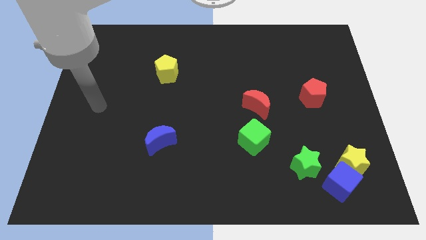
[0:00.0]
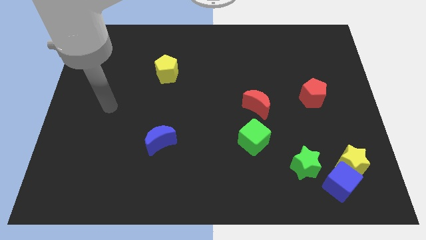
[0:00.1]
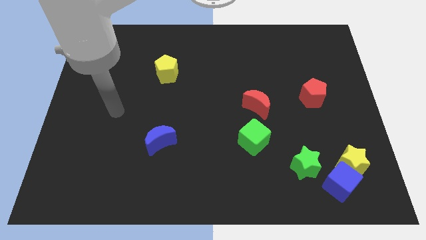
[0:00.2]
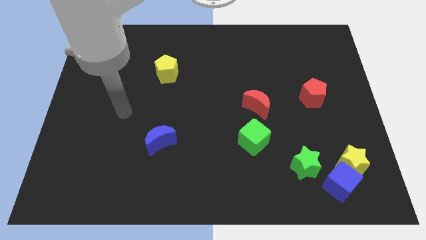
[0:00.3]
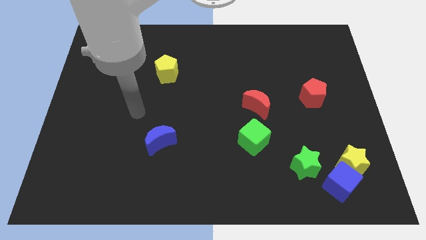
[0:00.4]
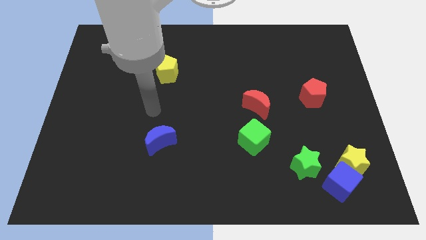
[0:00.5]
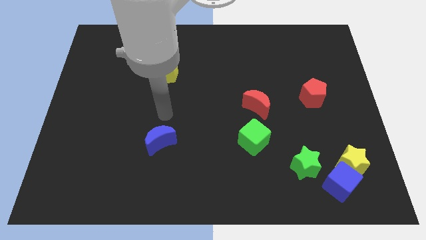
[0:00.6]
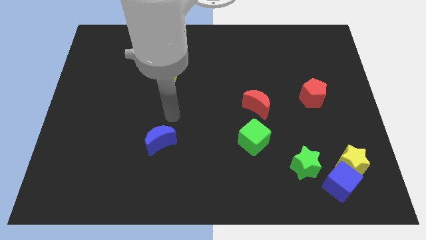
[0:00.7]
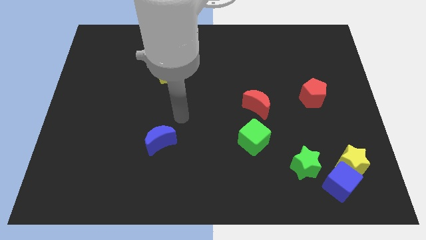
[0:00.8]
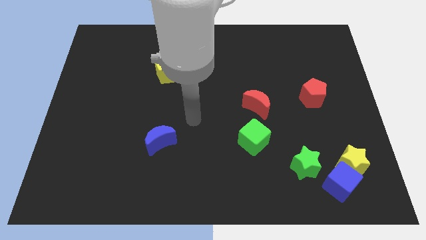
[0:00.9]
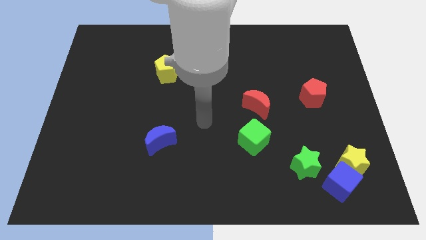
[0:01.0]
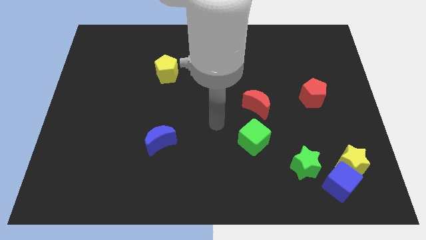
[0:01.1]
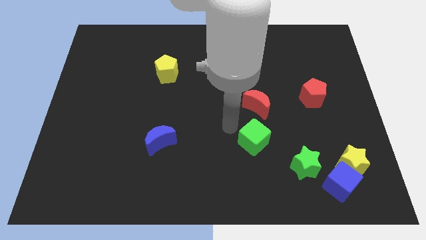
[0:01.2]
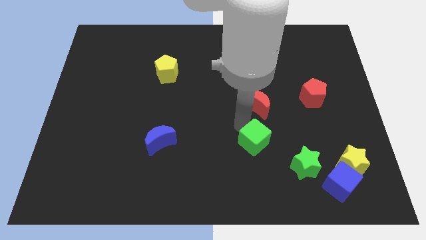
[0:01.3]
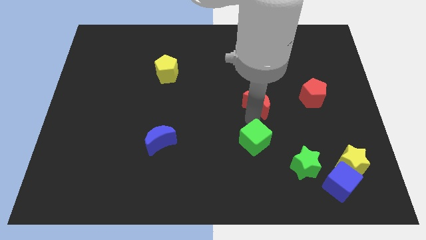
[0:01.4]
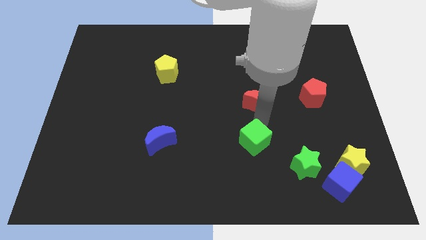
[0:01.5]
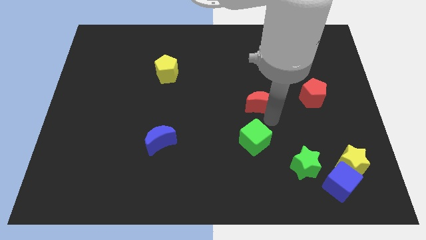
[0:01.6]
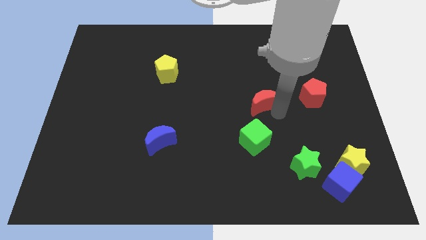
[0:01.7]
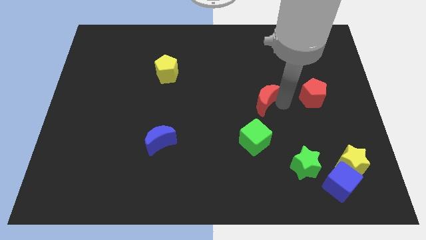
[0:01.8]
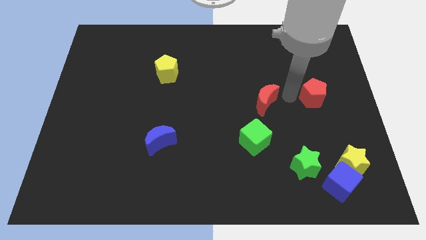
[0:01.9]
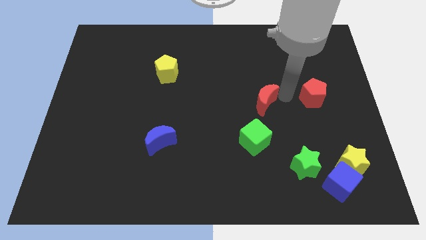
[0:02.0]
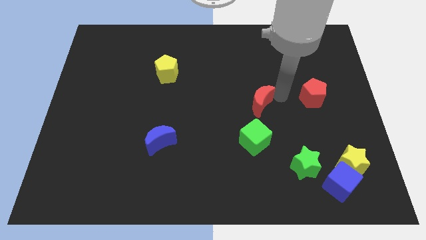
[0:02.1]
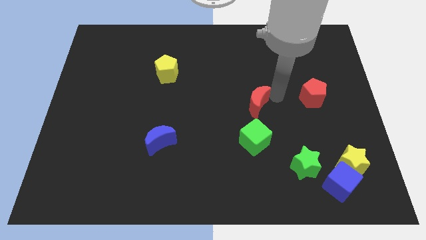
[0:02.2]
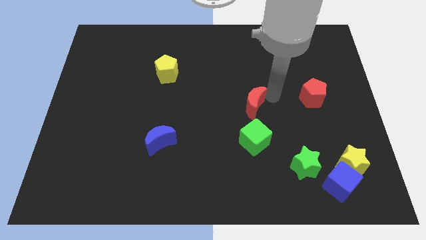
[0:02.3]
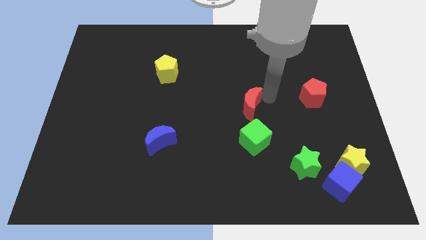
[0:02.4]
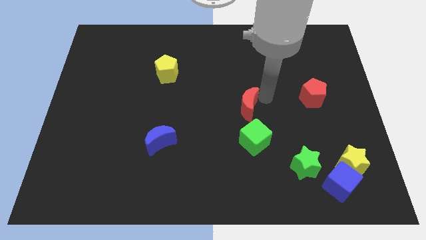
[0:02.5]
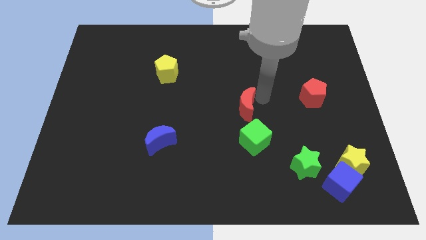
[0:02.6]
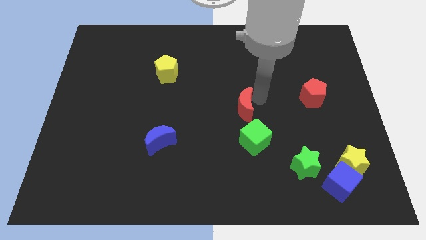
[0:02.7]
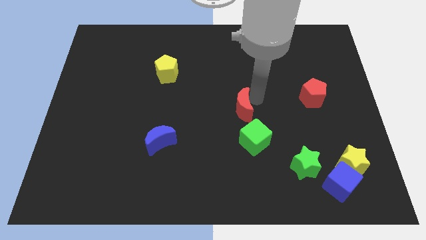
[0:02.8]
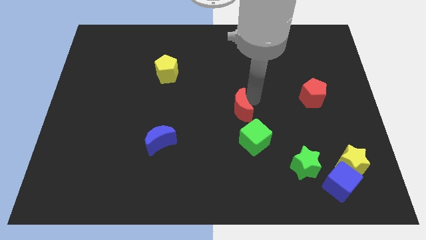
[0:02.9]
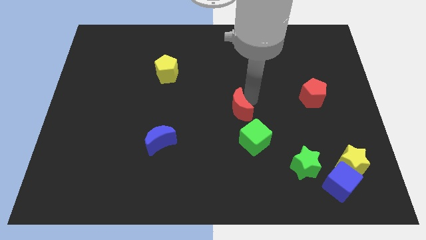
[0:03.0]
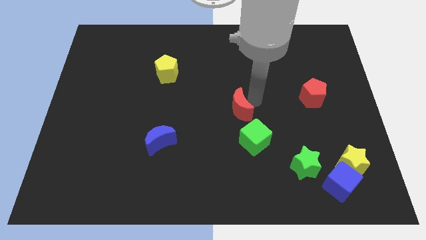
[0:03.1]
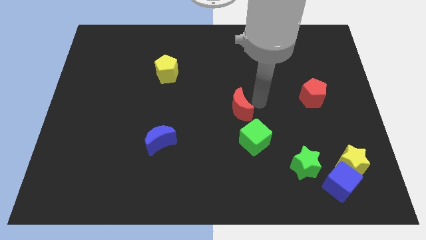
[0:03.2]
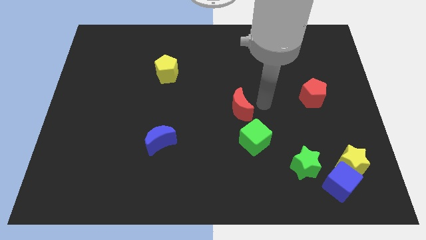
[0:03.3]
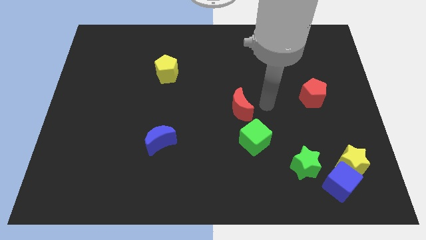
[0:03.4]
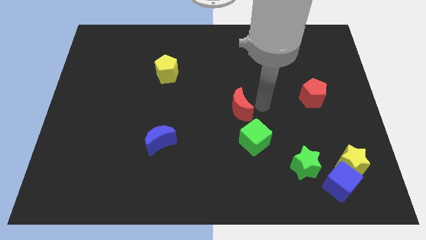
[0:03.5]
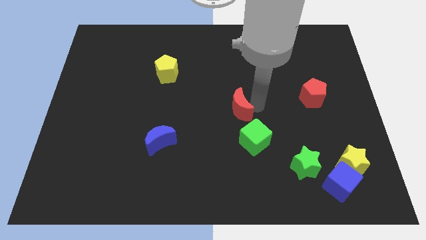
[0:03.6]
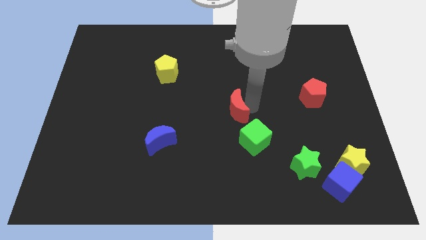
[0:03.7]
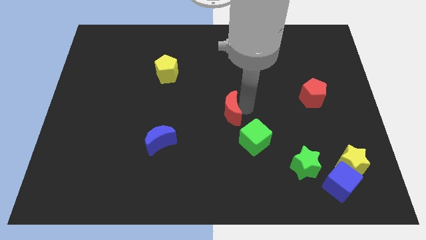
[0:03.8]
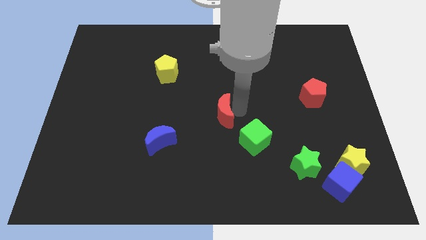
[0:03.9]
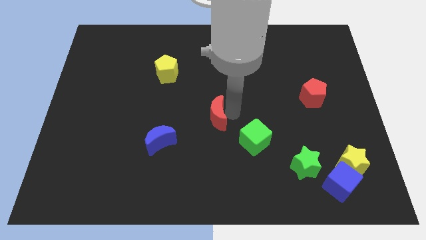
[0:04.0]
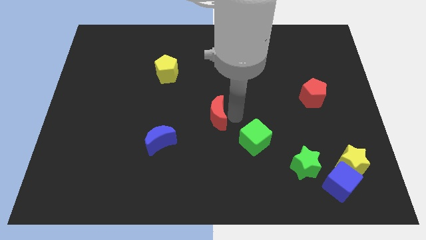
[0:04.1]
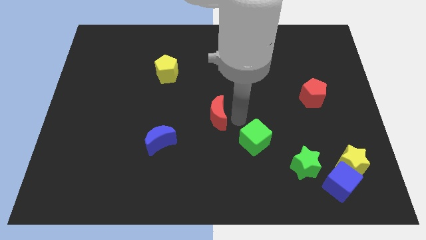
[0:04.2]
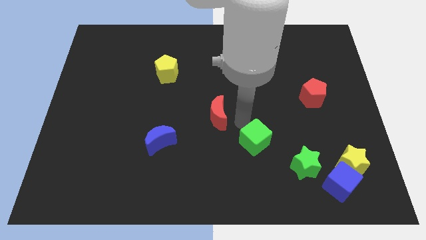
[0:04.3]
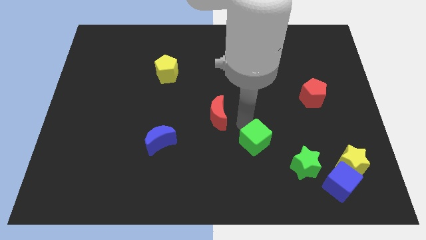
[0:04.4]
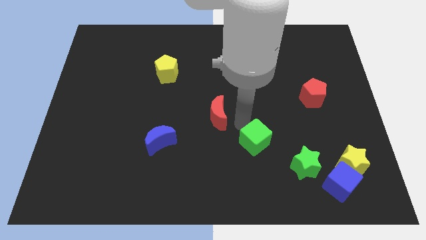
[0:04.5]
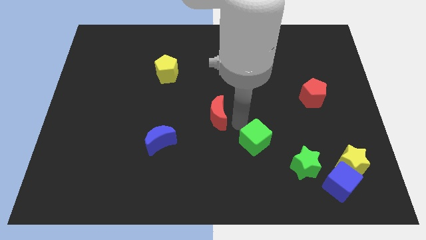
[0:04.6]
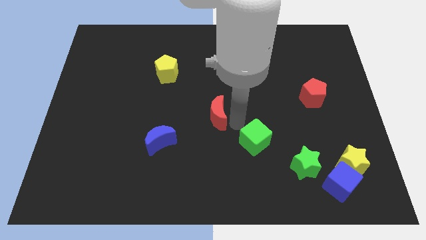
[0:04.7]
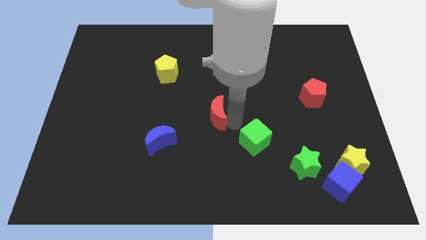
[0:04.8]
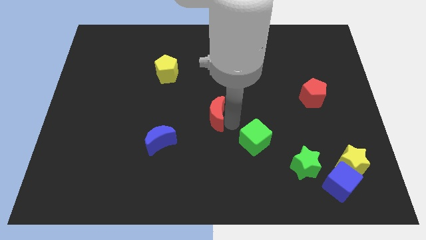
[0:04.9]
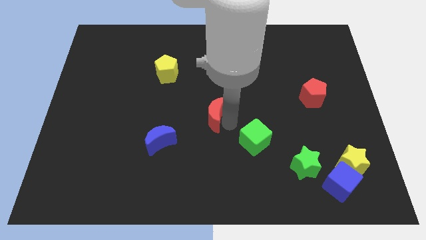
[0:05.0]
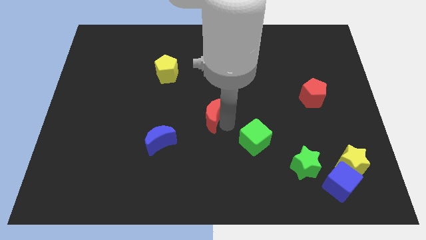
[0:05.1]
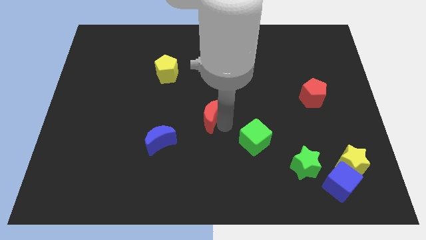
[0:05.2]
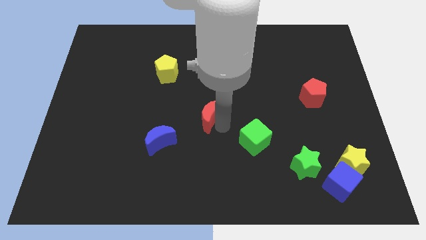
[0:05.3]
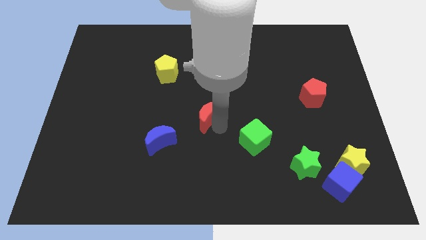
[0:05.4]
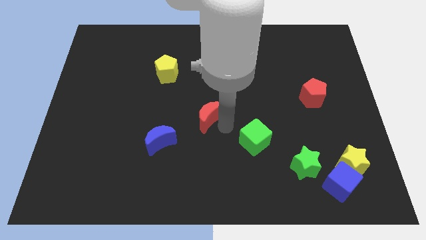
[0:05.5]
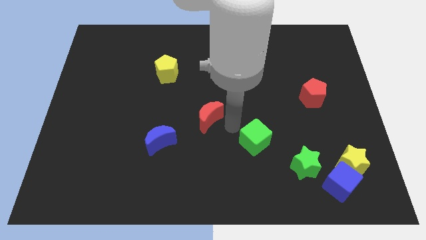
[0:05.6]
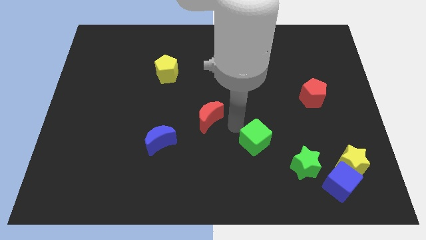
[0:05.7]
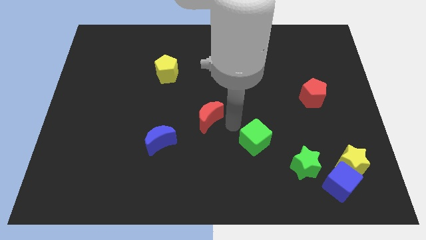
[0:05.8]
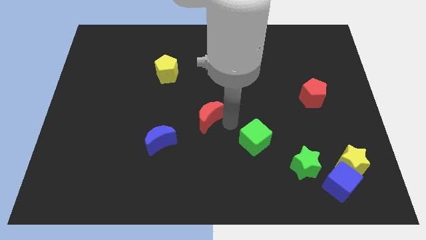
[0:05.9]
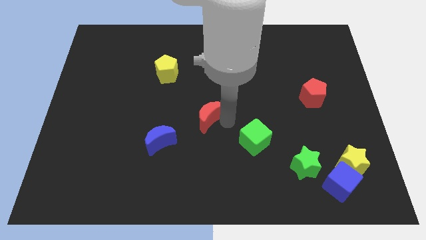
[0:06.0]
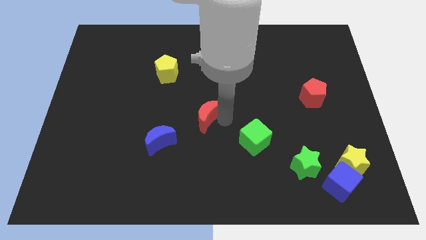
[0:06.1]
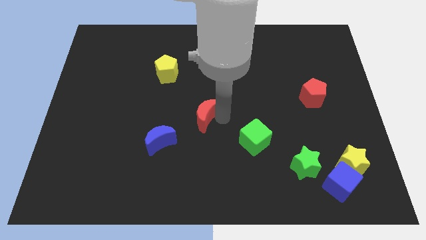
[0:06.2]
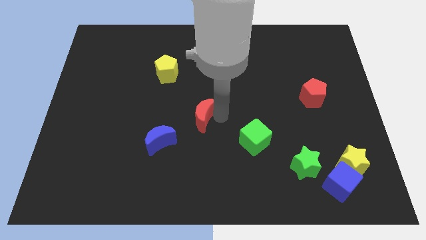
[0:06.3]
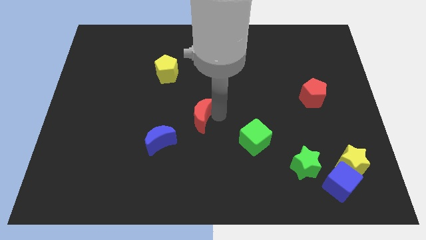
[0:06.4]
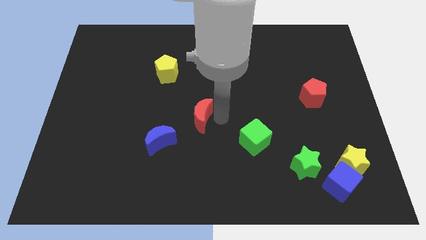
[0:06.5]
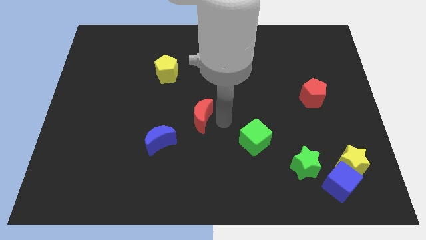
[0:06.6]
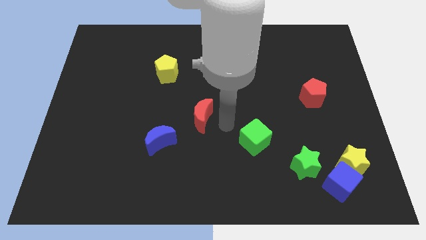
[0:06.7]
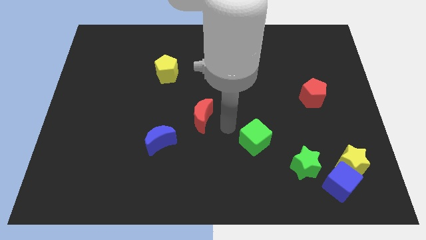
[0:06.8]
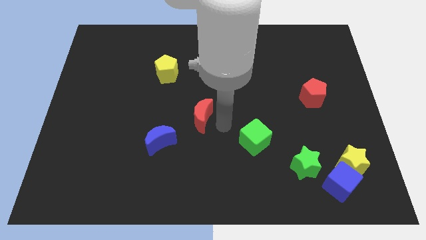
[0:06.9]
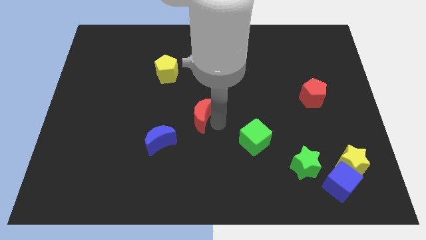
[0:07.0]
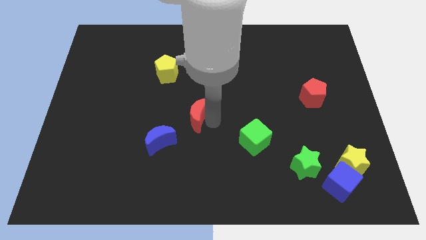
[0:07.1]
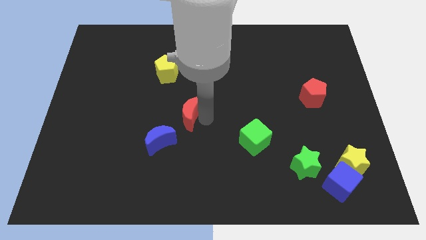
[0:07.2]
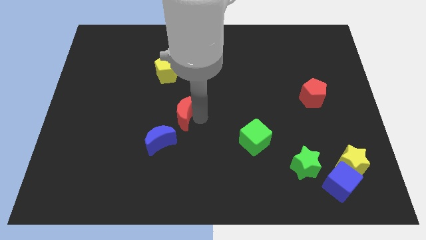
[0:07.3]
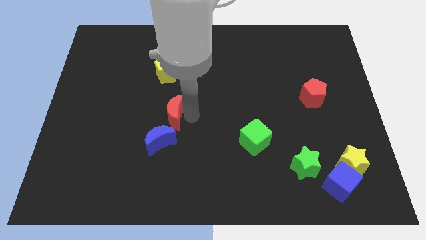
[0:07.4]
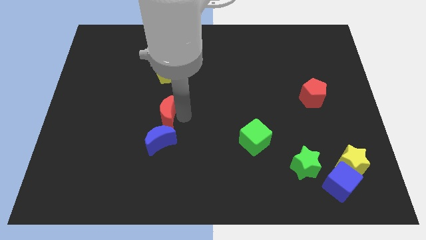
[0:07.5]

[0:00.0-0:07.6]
push the red moon to the left

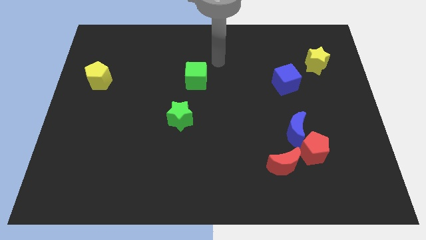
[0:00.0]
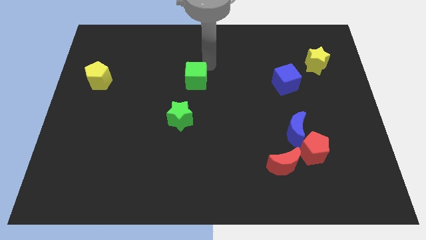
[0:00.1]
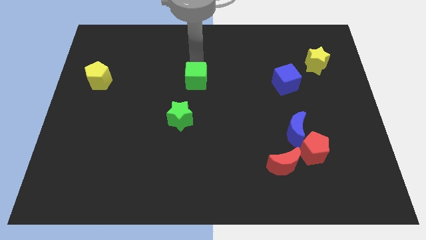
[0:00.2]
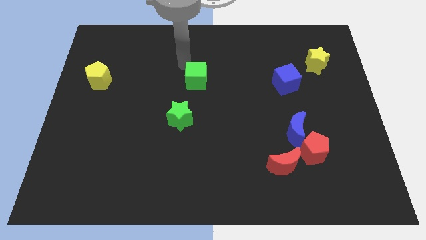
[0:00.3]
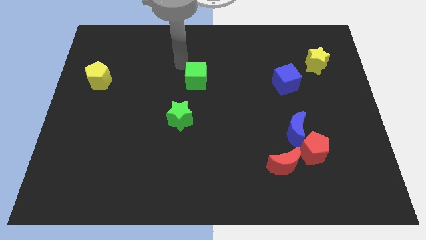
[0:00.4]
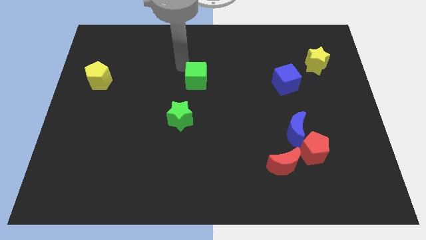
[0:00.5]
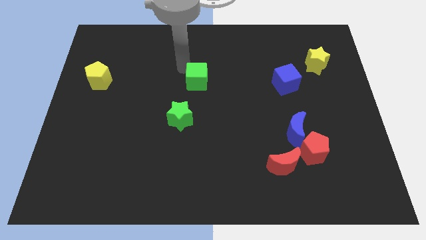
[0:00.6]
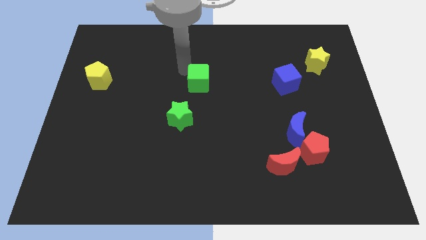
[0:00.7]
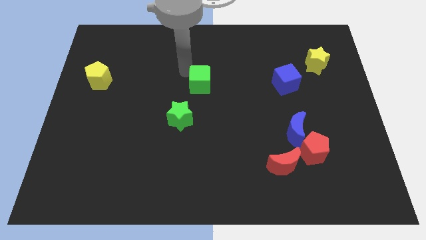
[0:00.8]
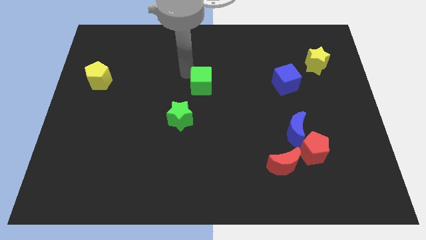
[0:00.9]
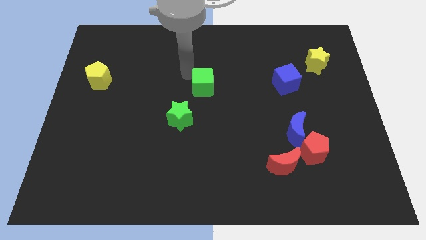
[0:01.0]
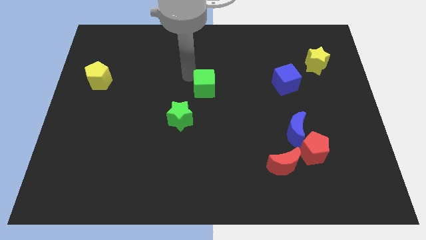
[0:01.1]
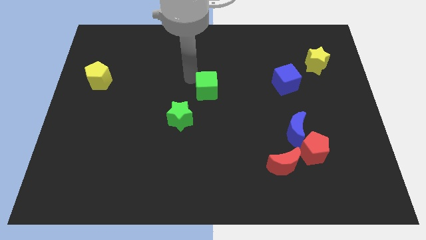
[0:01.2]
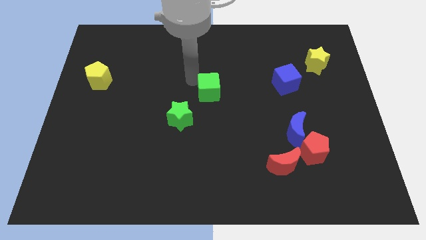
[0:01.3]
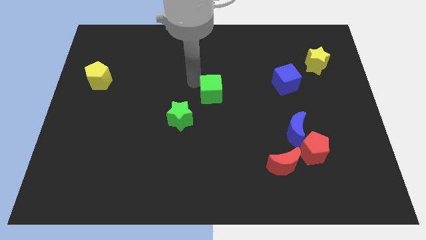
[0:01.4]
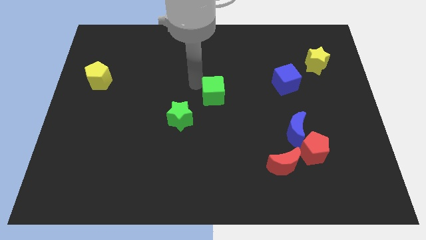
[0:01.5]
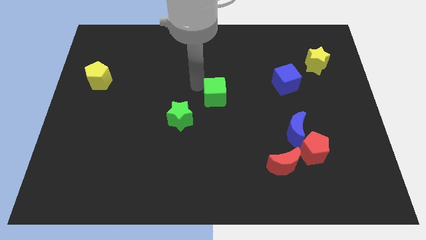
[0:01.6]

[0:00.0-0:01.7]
push the green cube downwards and right a little
